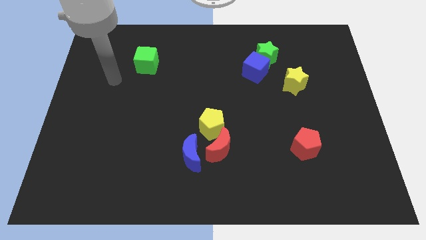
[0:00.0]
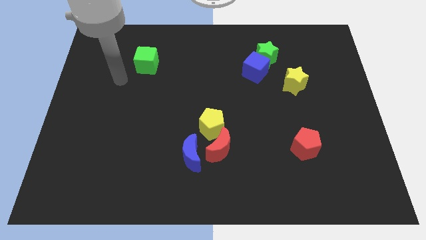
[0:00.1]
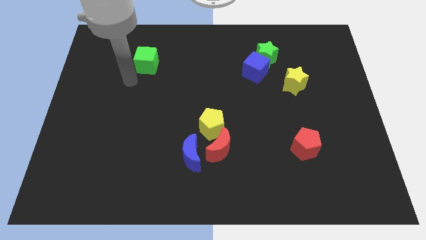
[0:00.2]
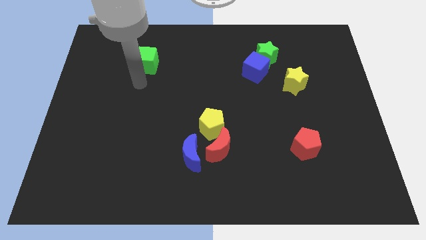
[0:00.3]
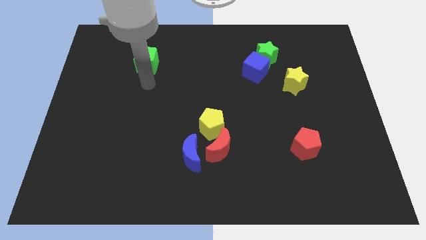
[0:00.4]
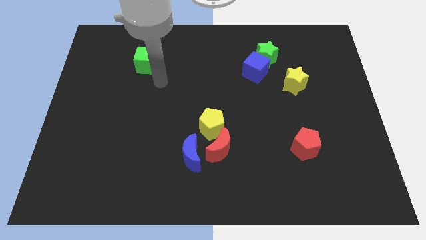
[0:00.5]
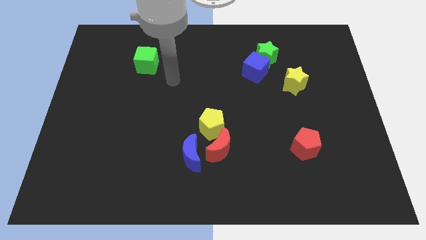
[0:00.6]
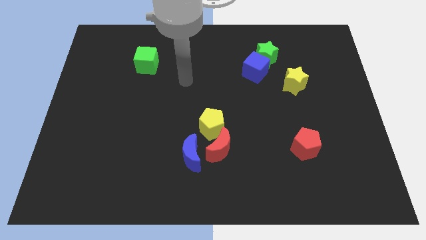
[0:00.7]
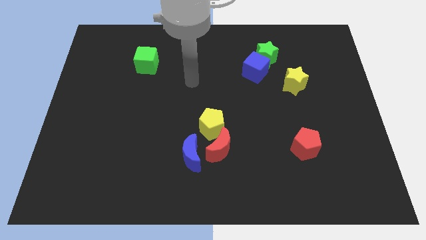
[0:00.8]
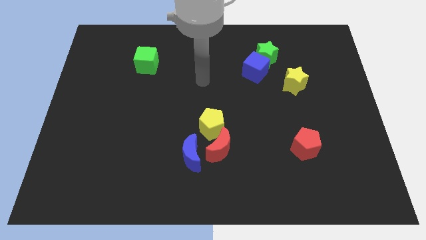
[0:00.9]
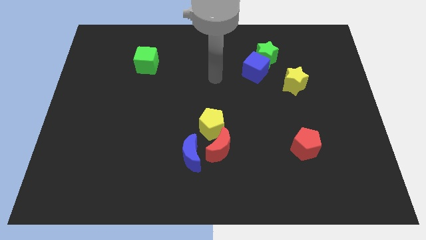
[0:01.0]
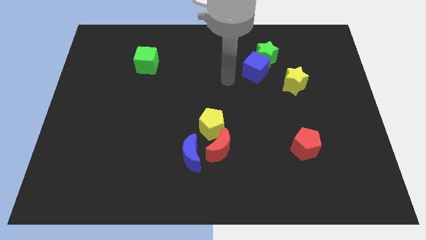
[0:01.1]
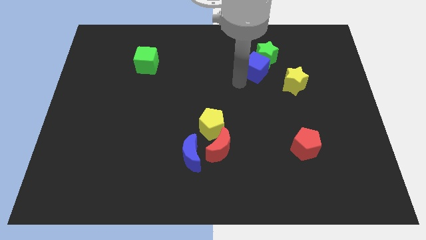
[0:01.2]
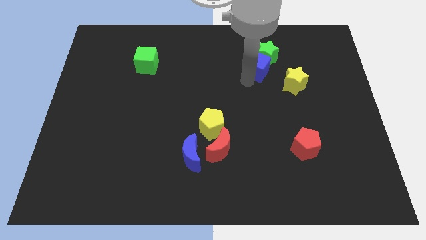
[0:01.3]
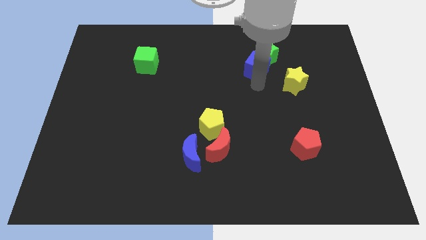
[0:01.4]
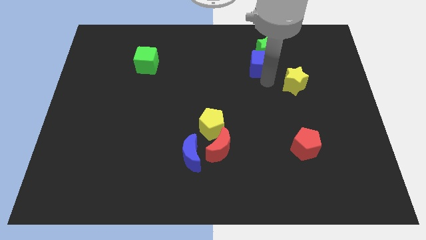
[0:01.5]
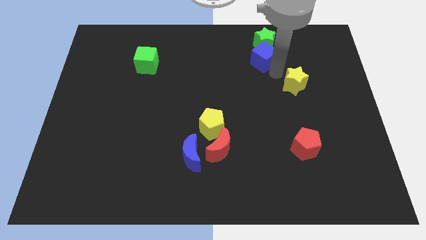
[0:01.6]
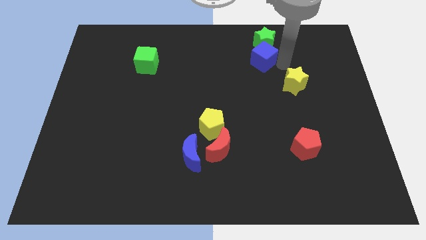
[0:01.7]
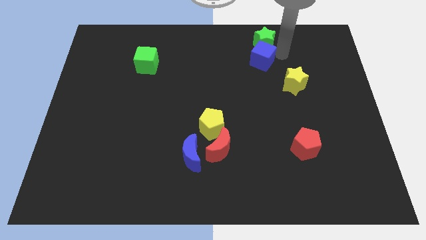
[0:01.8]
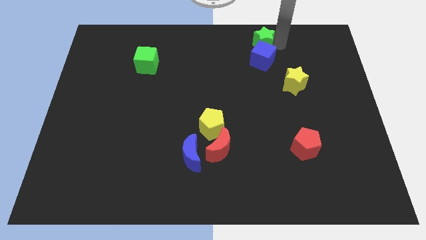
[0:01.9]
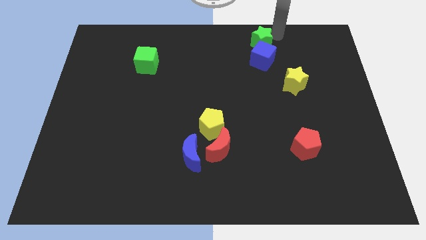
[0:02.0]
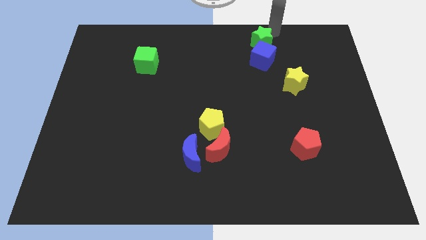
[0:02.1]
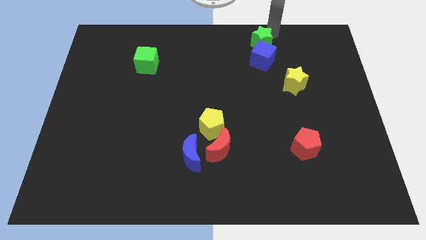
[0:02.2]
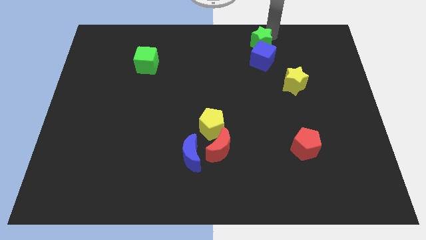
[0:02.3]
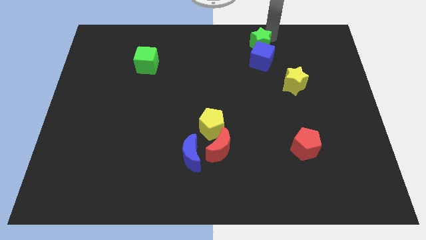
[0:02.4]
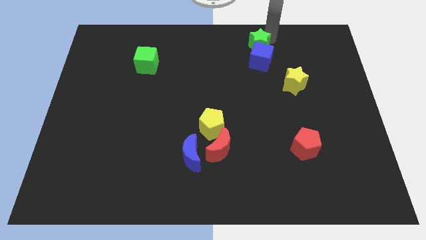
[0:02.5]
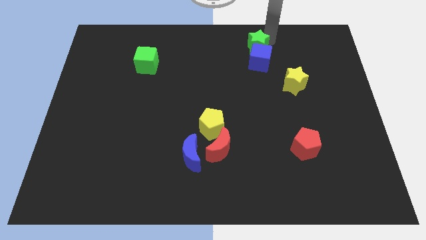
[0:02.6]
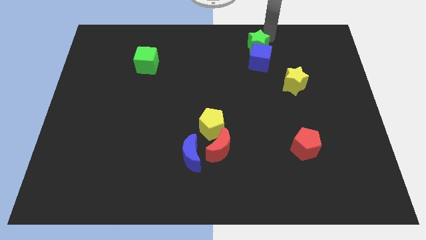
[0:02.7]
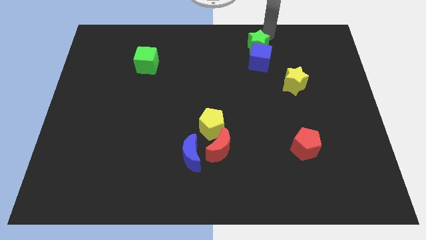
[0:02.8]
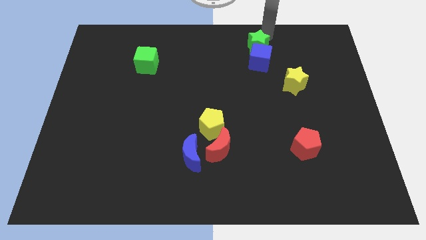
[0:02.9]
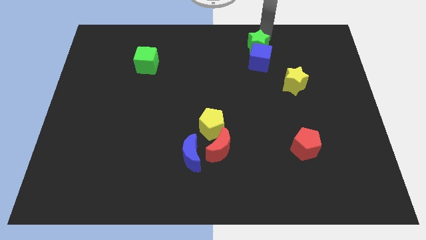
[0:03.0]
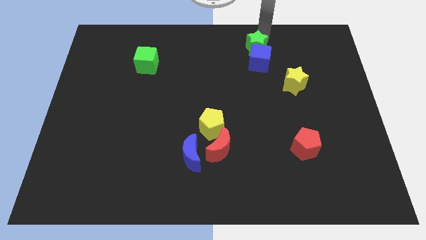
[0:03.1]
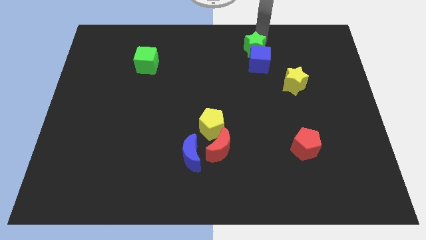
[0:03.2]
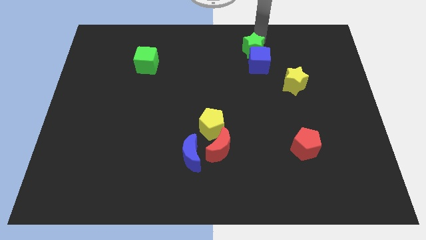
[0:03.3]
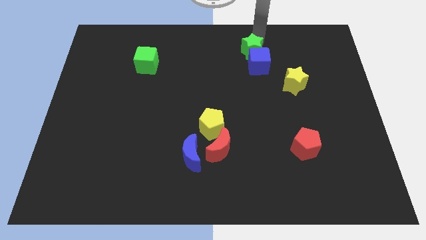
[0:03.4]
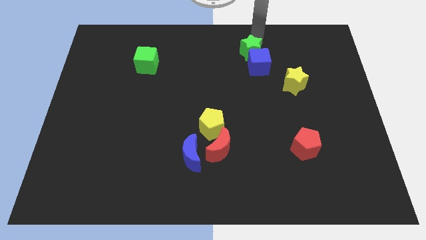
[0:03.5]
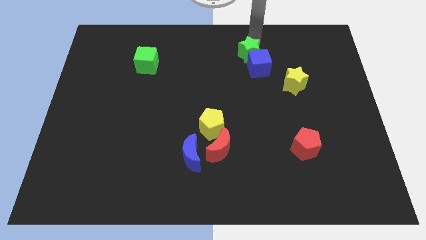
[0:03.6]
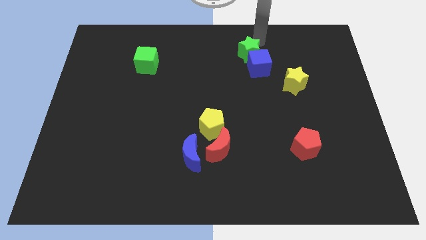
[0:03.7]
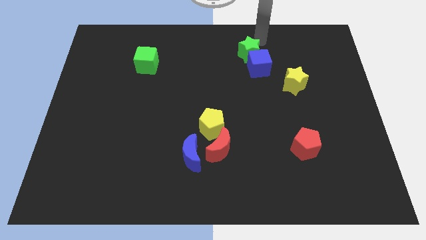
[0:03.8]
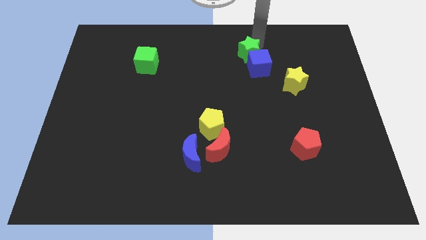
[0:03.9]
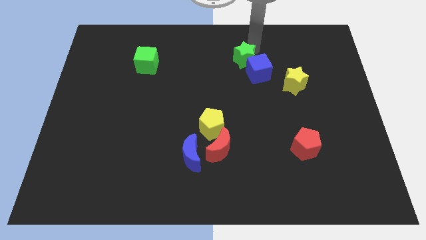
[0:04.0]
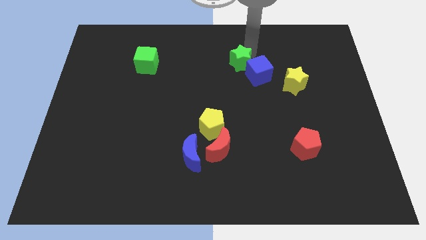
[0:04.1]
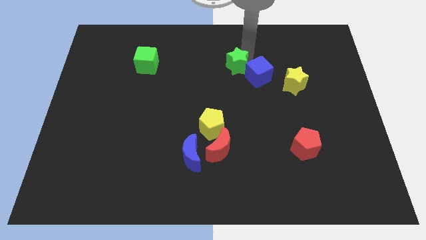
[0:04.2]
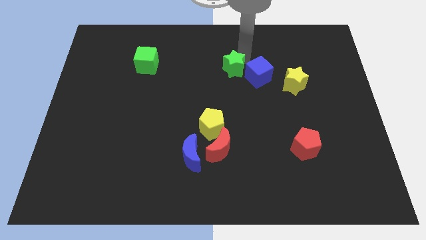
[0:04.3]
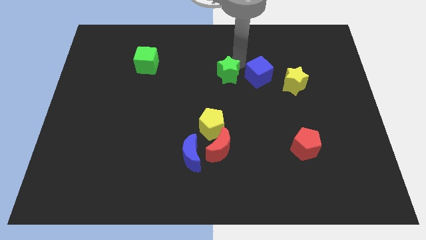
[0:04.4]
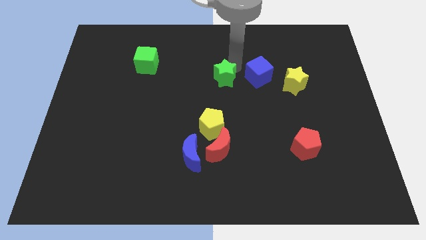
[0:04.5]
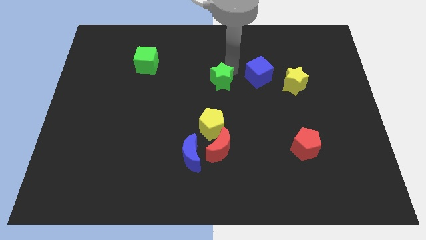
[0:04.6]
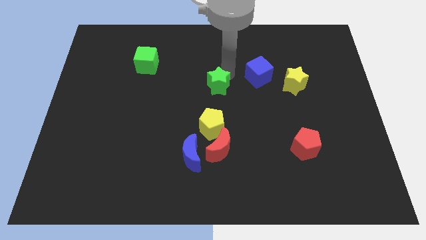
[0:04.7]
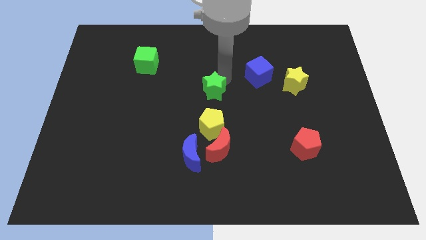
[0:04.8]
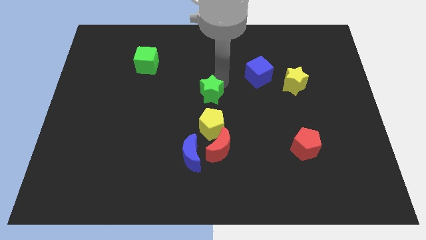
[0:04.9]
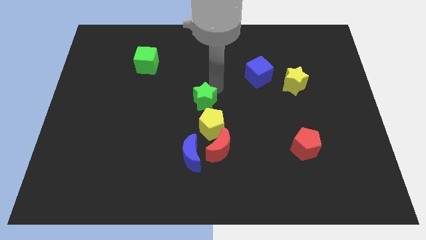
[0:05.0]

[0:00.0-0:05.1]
slide the green star downwards and then to the left

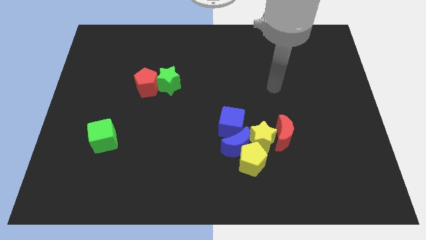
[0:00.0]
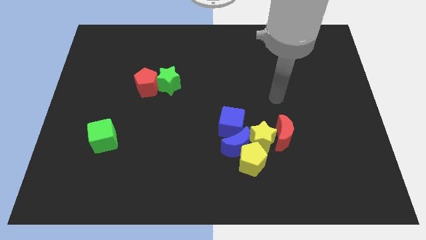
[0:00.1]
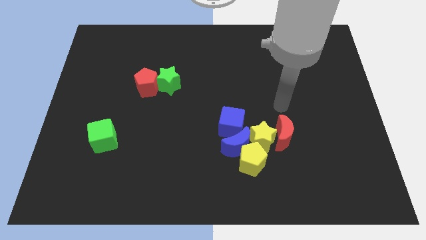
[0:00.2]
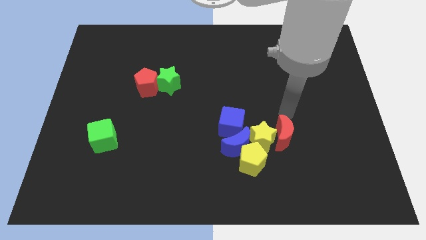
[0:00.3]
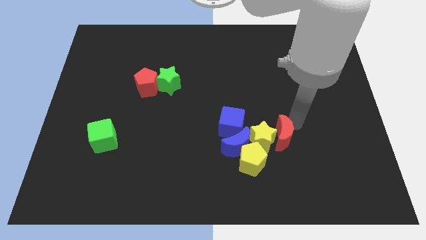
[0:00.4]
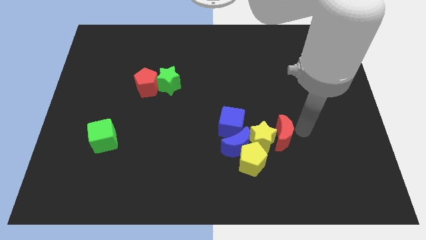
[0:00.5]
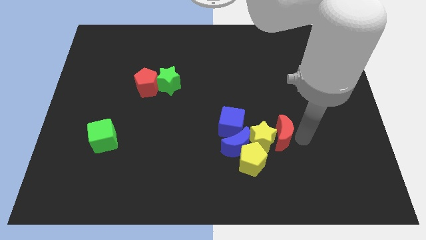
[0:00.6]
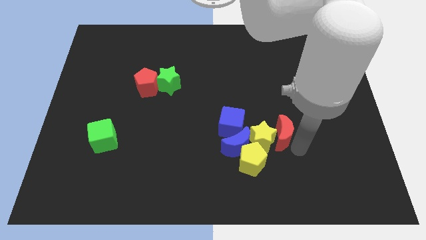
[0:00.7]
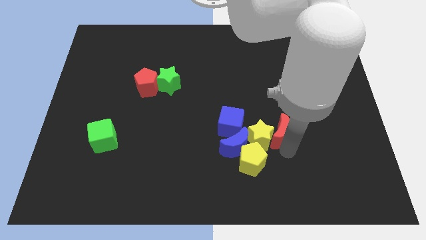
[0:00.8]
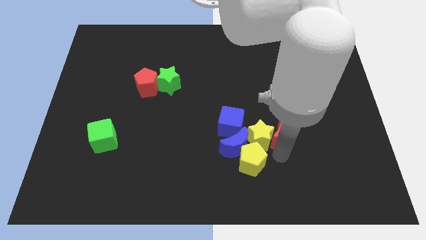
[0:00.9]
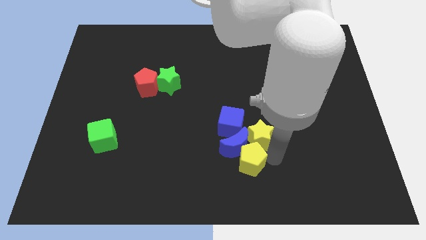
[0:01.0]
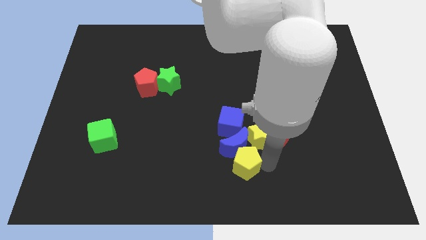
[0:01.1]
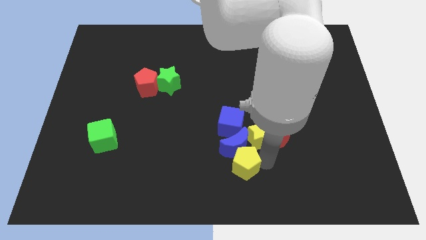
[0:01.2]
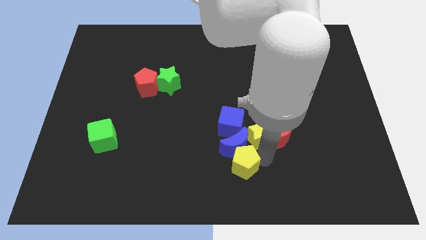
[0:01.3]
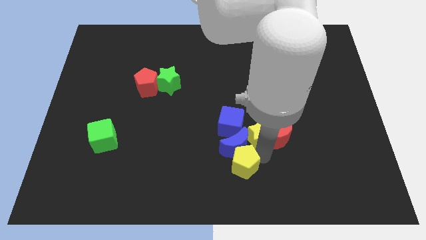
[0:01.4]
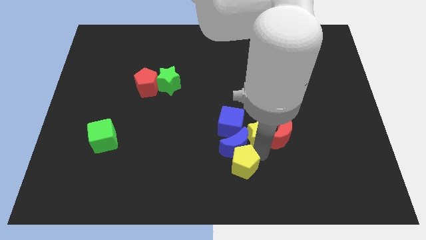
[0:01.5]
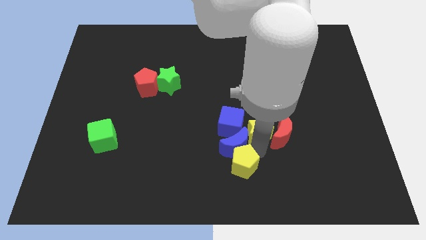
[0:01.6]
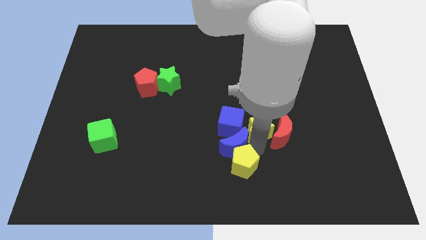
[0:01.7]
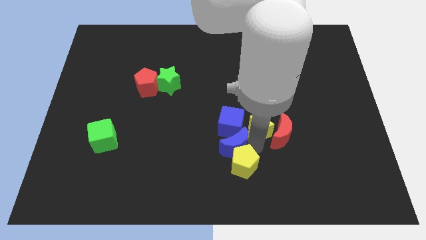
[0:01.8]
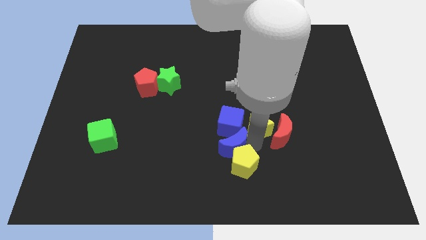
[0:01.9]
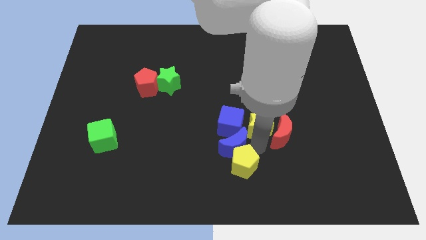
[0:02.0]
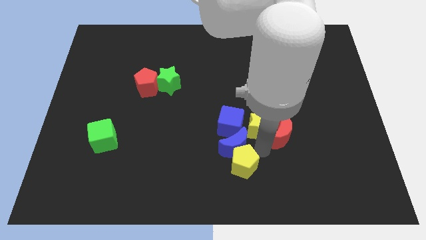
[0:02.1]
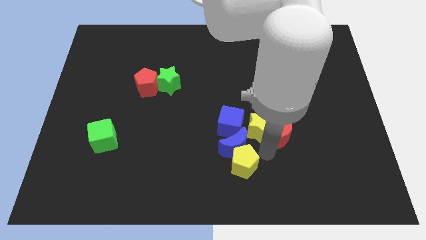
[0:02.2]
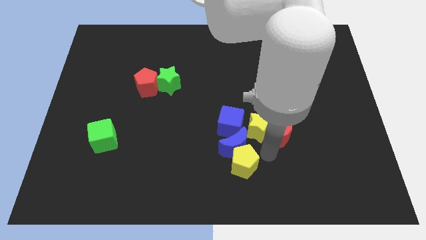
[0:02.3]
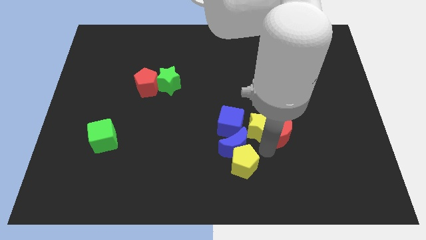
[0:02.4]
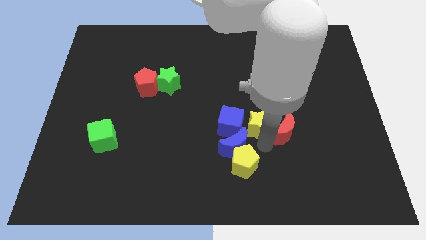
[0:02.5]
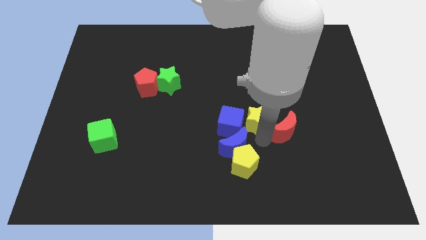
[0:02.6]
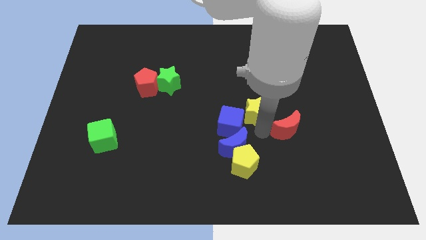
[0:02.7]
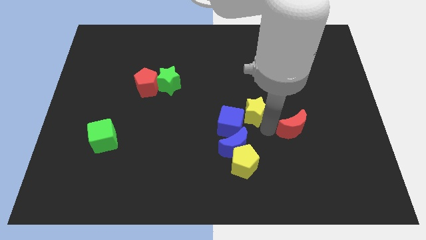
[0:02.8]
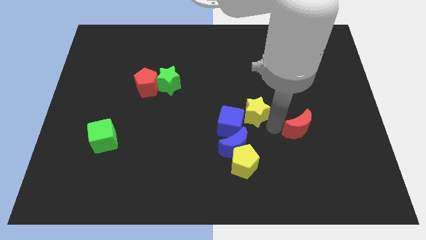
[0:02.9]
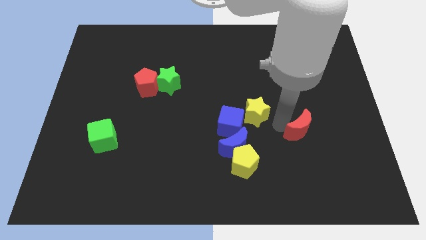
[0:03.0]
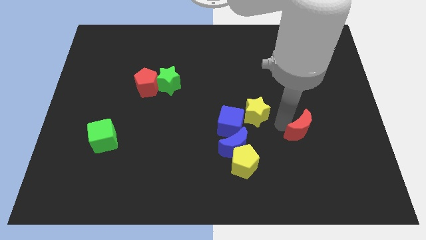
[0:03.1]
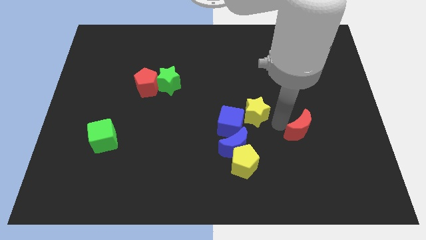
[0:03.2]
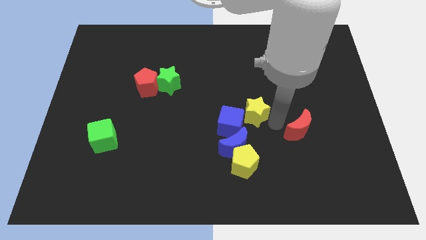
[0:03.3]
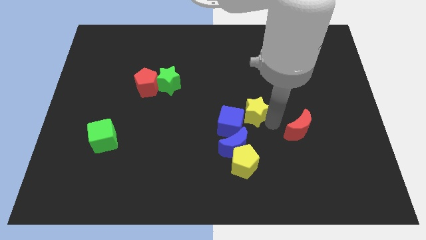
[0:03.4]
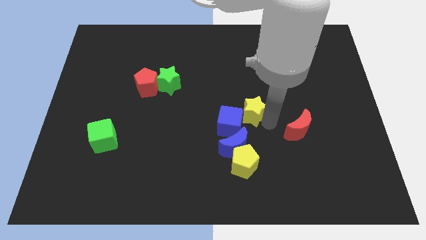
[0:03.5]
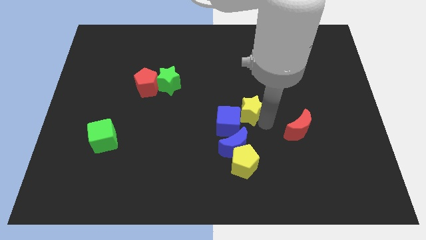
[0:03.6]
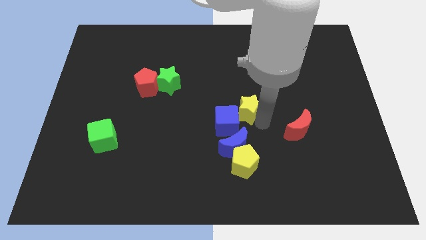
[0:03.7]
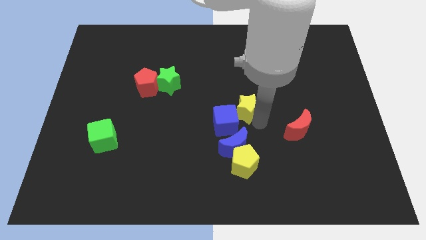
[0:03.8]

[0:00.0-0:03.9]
slightly move the yellow star upwards and then left
